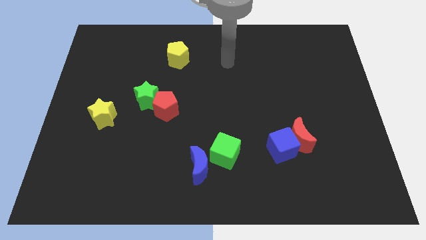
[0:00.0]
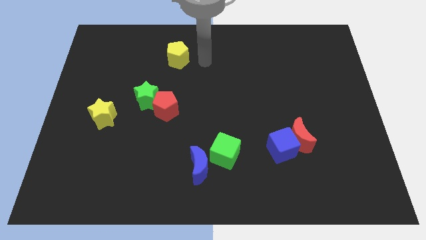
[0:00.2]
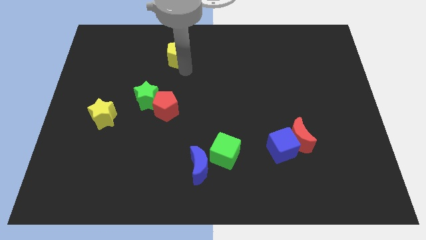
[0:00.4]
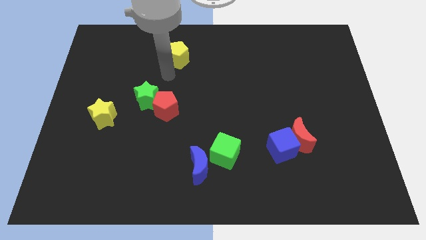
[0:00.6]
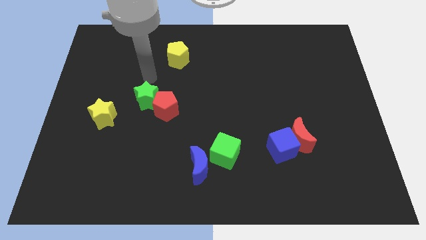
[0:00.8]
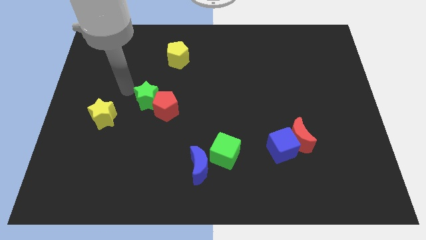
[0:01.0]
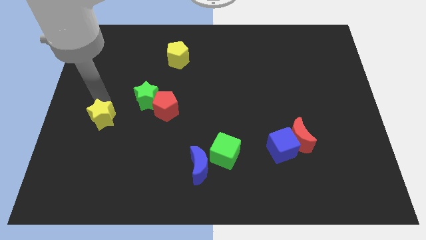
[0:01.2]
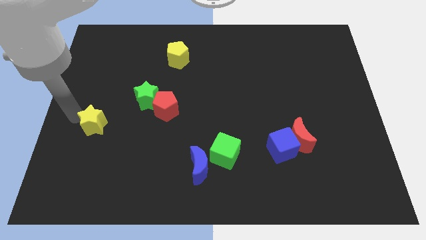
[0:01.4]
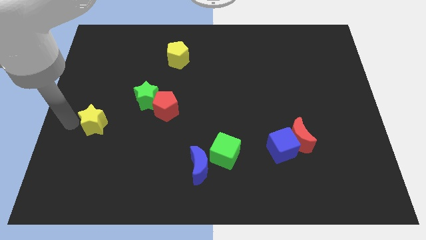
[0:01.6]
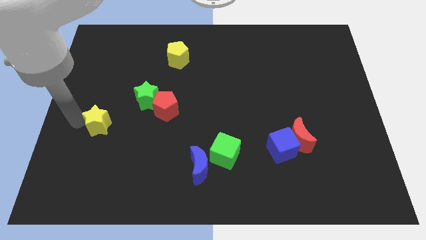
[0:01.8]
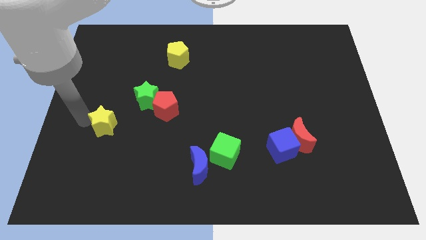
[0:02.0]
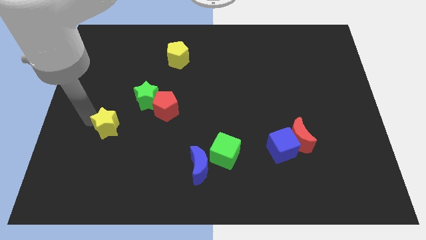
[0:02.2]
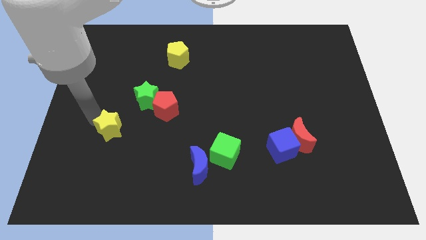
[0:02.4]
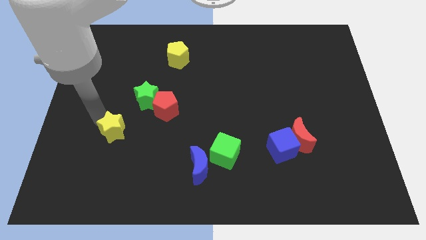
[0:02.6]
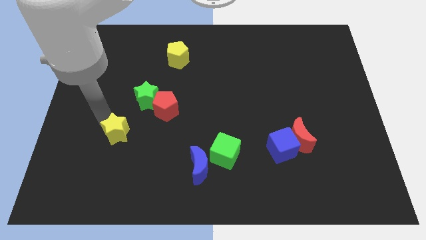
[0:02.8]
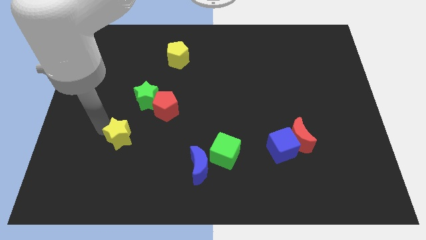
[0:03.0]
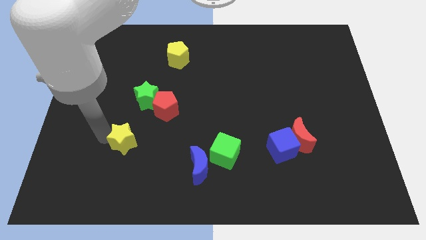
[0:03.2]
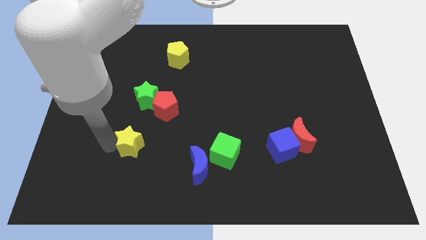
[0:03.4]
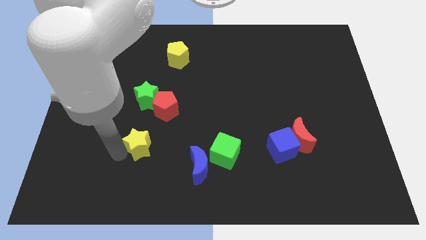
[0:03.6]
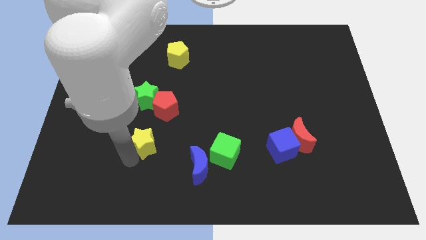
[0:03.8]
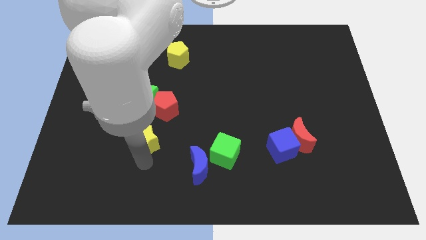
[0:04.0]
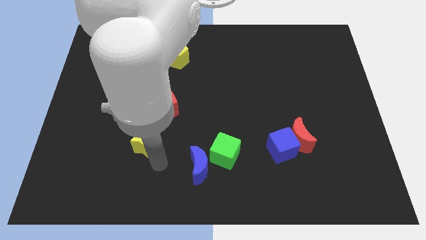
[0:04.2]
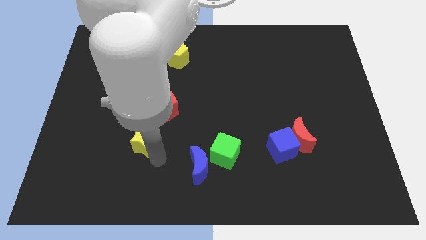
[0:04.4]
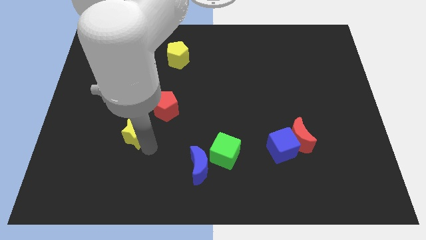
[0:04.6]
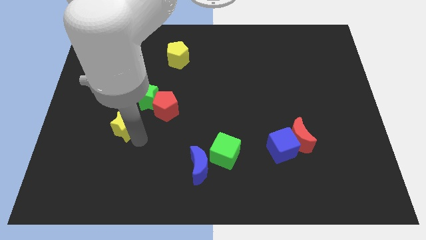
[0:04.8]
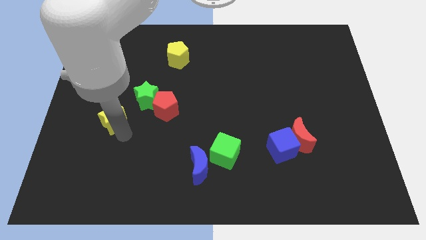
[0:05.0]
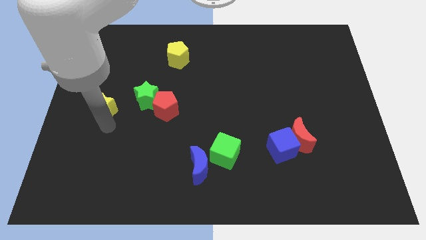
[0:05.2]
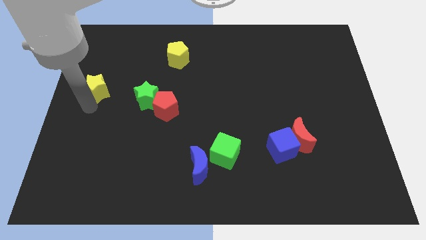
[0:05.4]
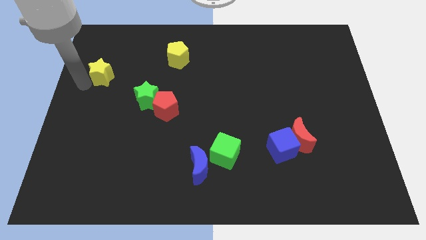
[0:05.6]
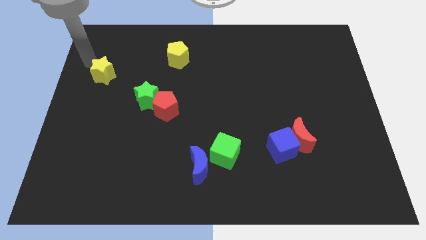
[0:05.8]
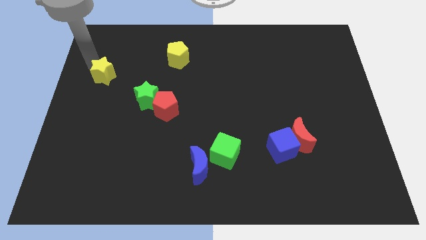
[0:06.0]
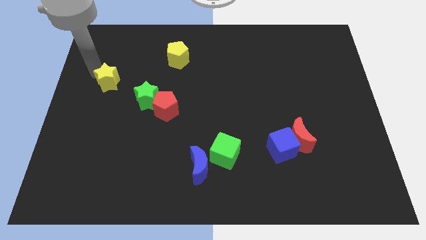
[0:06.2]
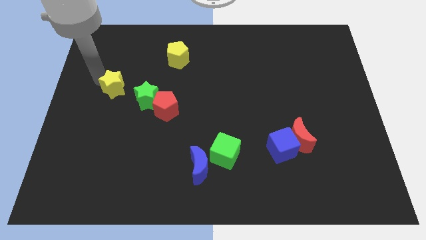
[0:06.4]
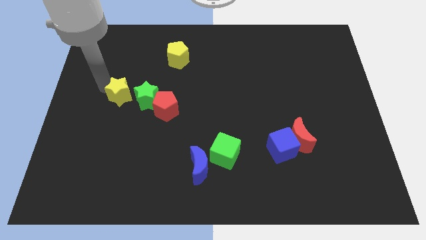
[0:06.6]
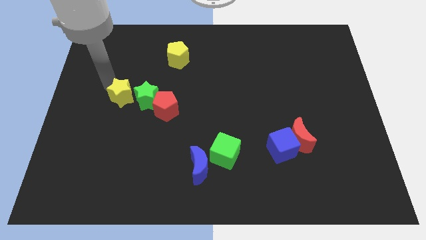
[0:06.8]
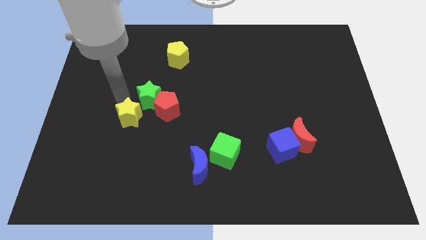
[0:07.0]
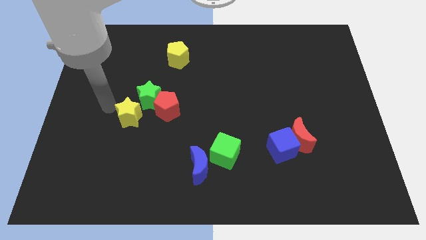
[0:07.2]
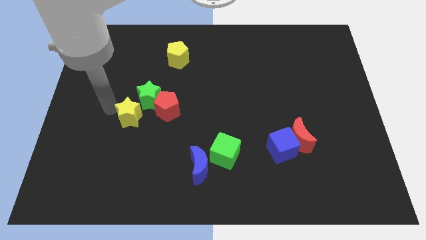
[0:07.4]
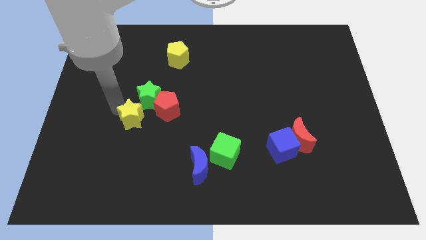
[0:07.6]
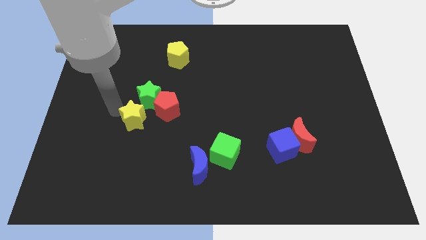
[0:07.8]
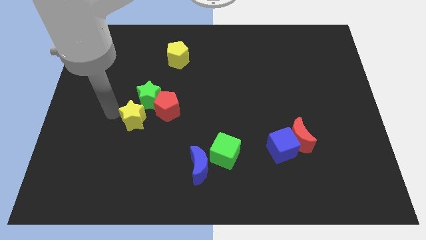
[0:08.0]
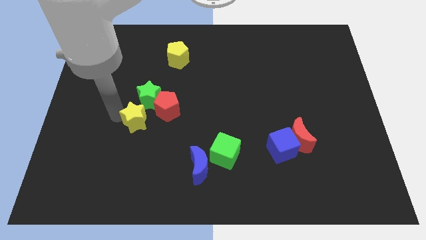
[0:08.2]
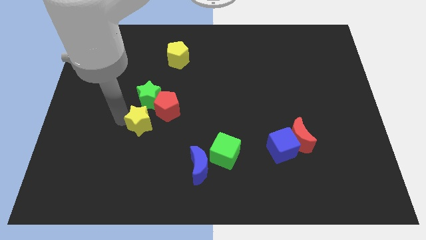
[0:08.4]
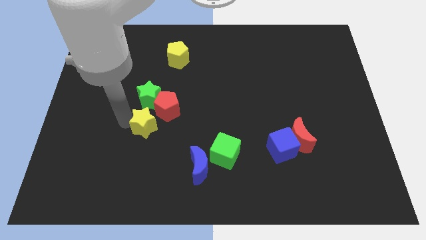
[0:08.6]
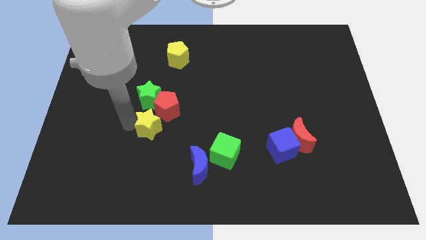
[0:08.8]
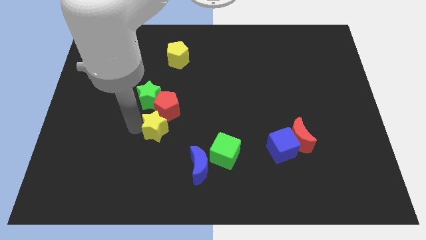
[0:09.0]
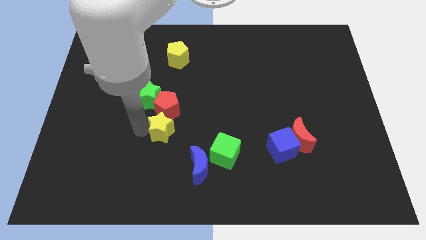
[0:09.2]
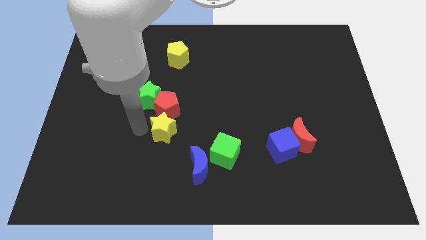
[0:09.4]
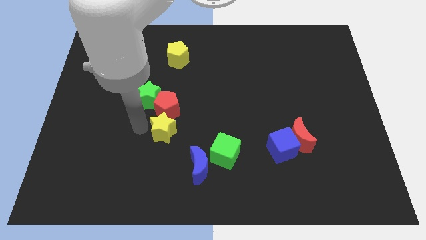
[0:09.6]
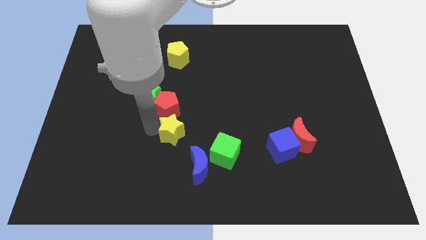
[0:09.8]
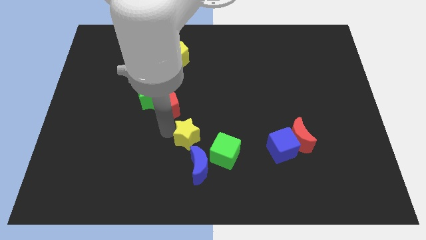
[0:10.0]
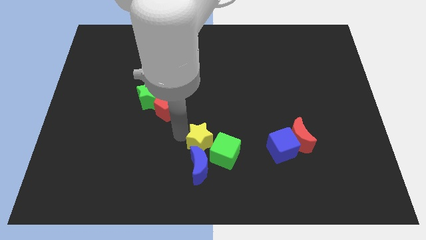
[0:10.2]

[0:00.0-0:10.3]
slide the yellow star to the top right of the blue moon

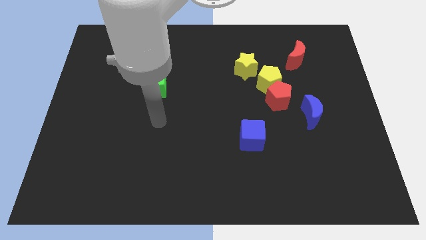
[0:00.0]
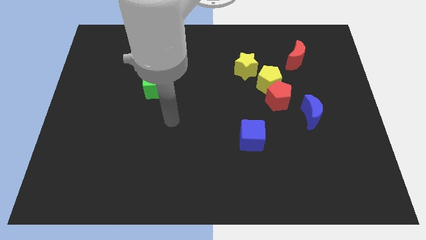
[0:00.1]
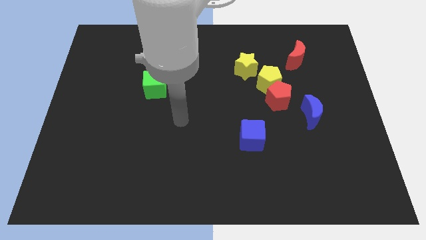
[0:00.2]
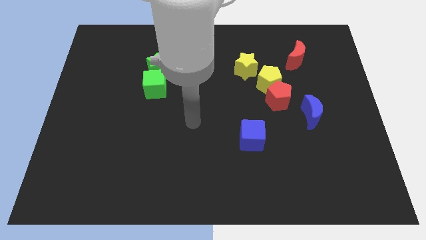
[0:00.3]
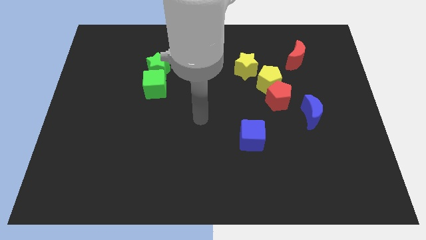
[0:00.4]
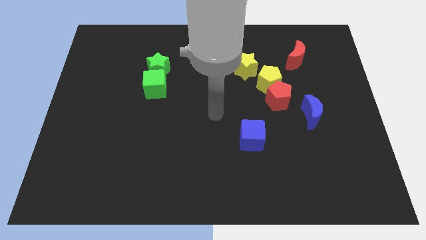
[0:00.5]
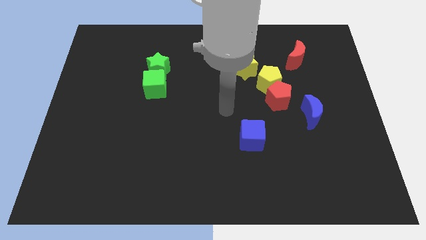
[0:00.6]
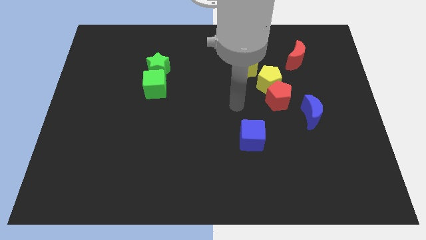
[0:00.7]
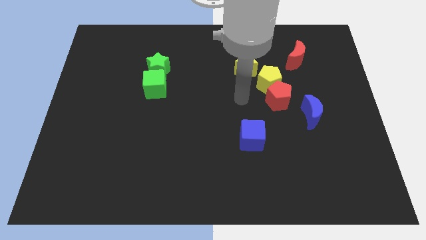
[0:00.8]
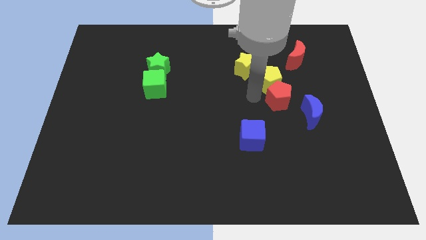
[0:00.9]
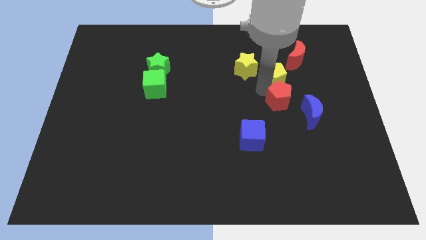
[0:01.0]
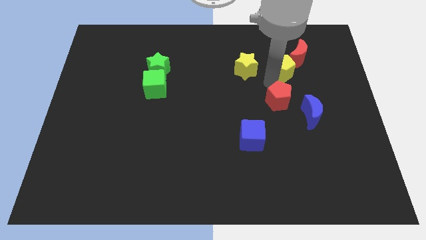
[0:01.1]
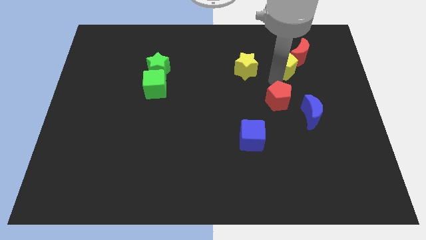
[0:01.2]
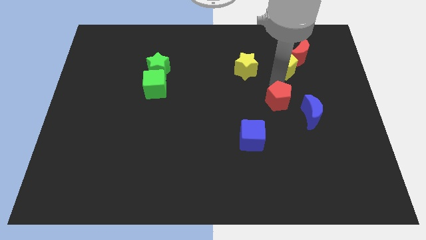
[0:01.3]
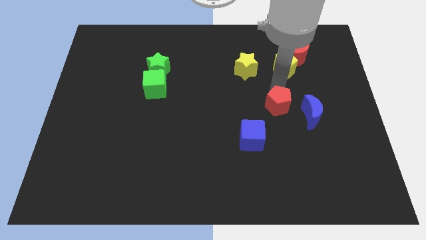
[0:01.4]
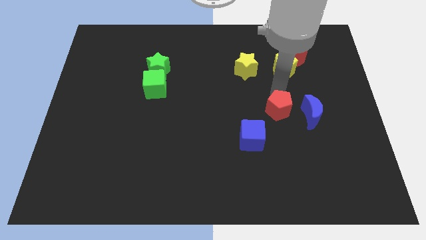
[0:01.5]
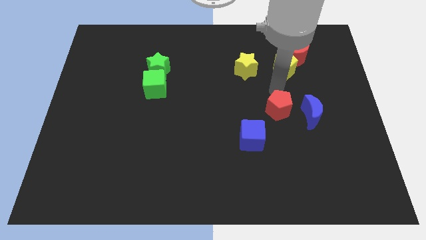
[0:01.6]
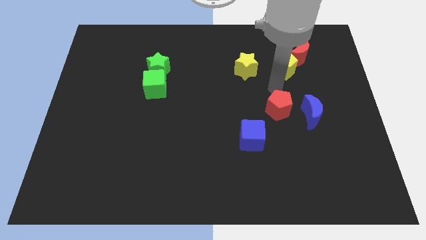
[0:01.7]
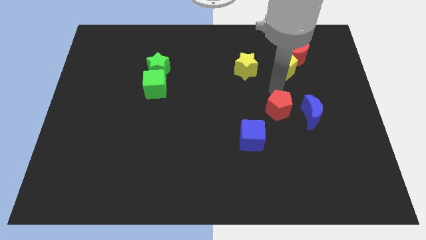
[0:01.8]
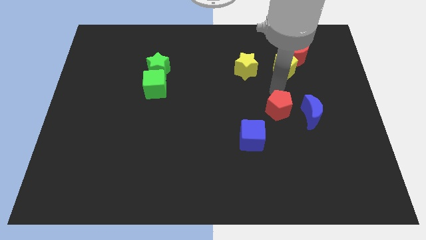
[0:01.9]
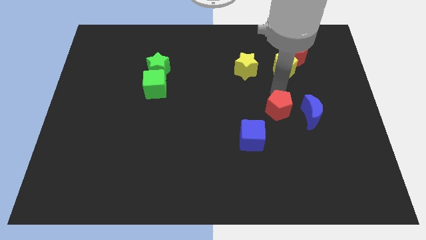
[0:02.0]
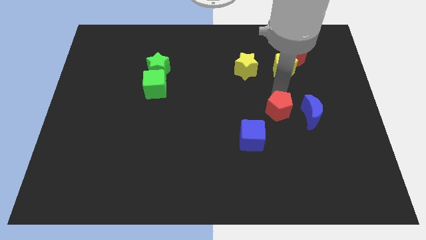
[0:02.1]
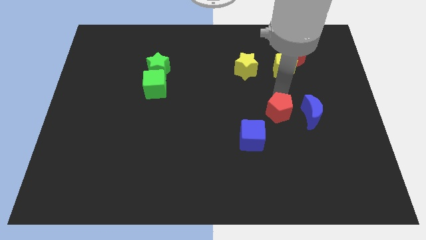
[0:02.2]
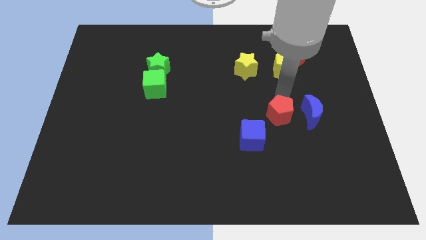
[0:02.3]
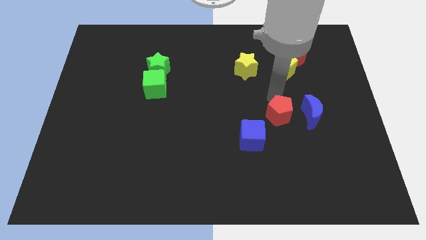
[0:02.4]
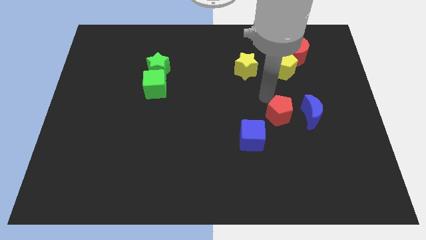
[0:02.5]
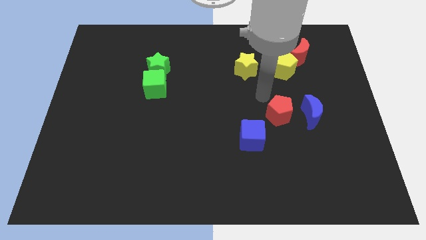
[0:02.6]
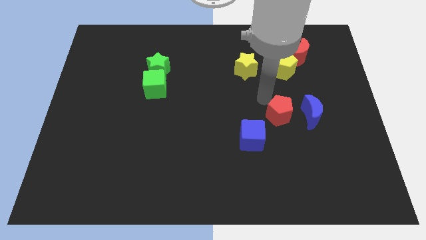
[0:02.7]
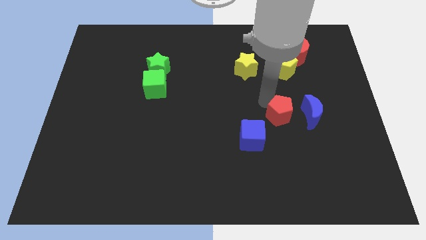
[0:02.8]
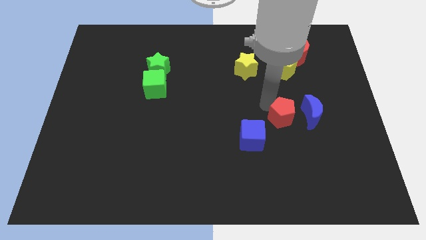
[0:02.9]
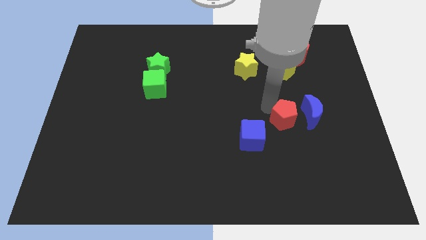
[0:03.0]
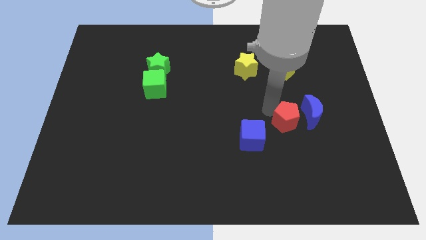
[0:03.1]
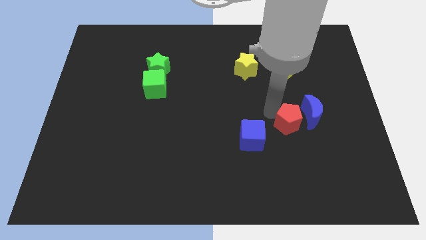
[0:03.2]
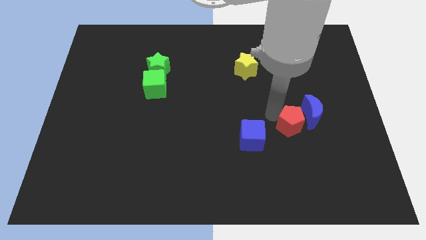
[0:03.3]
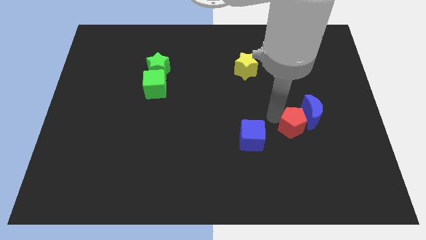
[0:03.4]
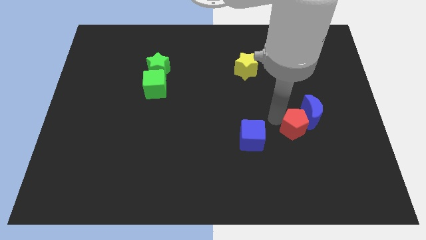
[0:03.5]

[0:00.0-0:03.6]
put the red pentagon to the bottom side of the blue moon
